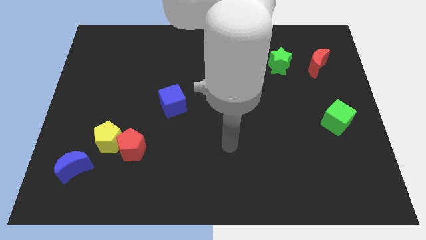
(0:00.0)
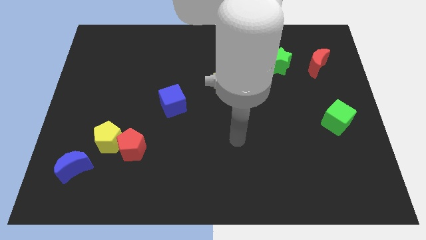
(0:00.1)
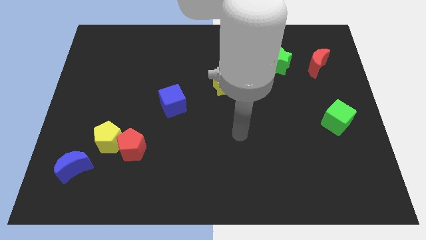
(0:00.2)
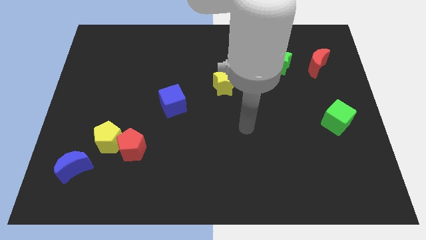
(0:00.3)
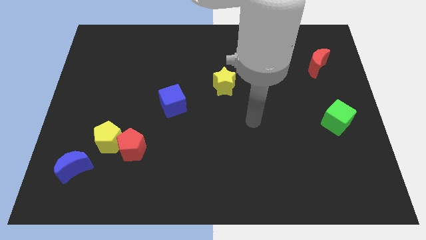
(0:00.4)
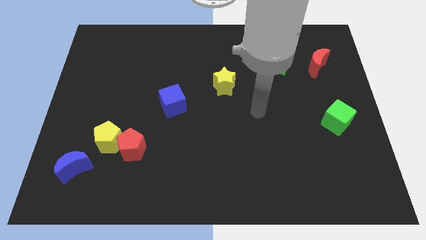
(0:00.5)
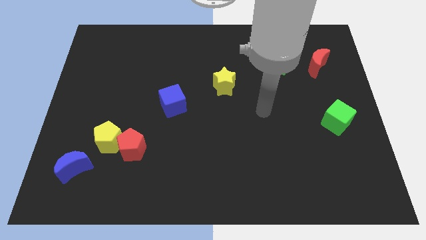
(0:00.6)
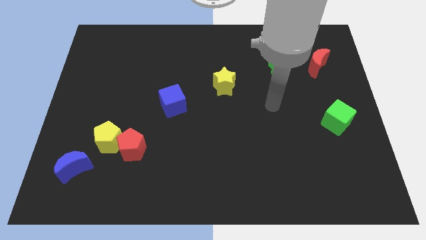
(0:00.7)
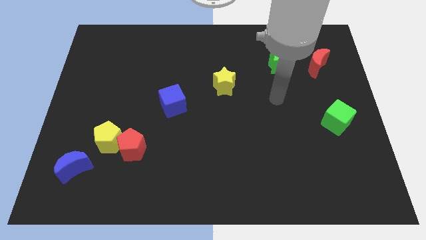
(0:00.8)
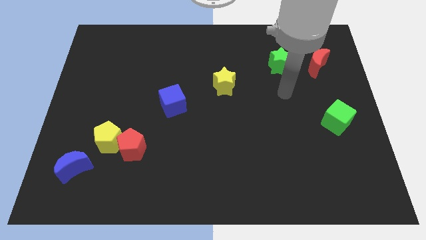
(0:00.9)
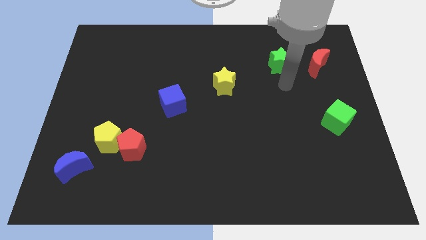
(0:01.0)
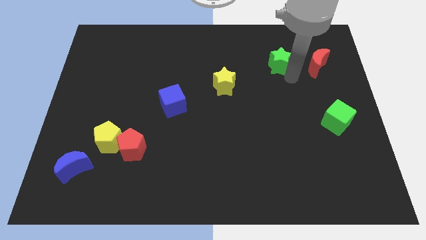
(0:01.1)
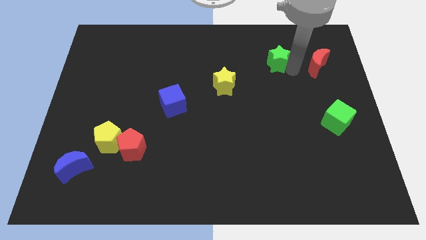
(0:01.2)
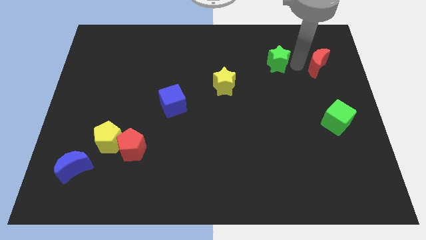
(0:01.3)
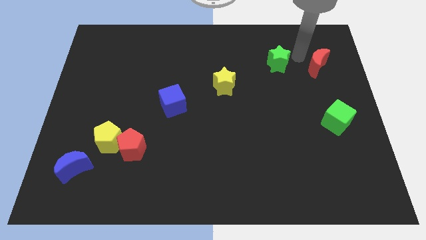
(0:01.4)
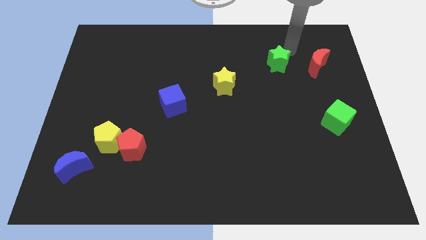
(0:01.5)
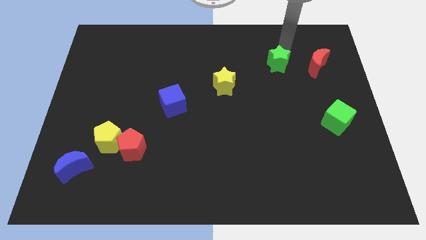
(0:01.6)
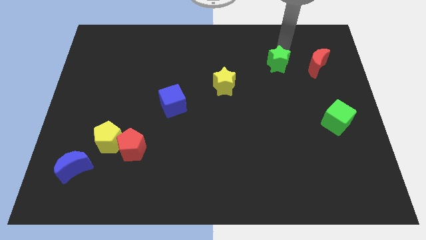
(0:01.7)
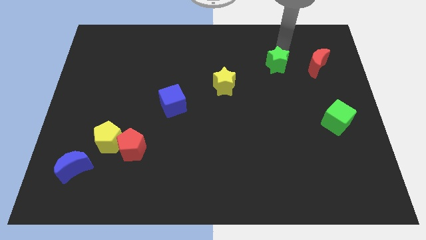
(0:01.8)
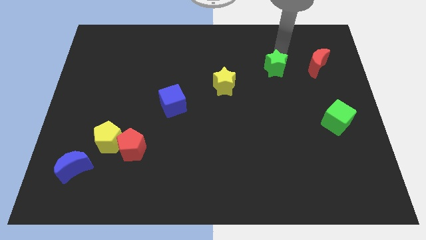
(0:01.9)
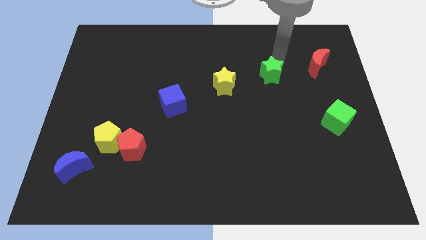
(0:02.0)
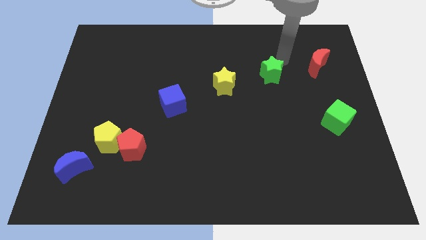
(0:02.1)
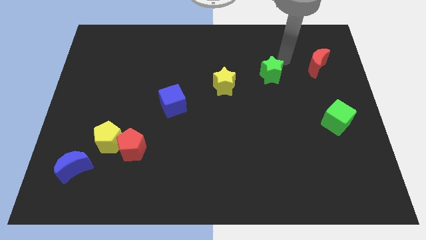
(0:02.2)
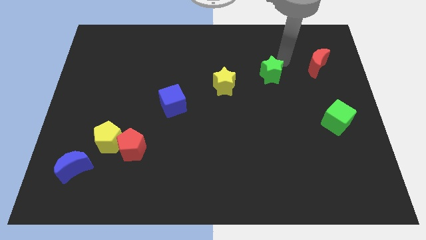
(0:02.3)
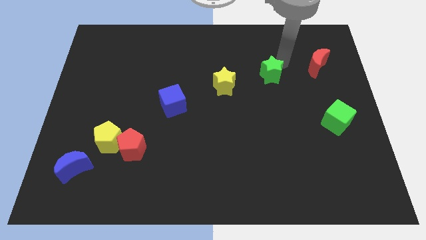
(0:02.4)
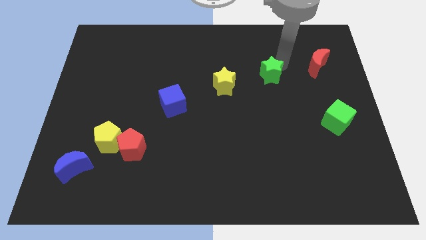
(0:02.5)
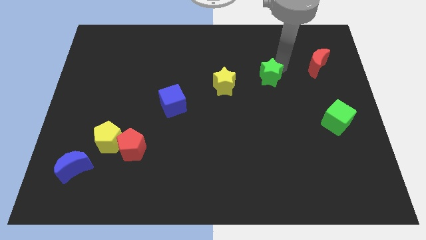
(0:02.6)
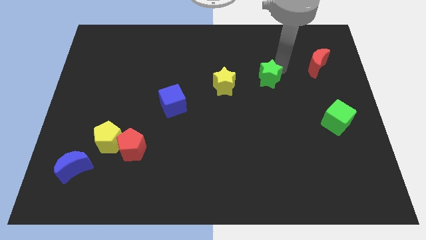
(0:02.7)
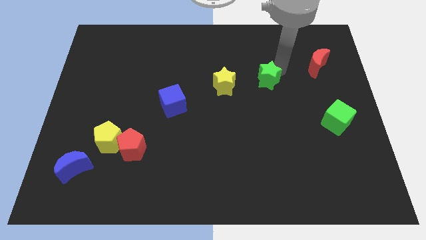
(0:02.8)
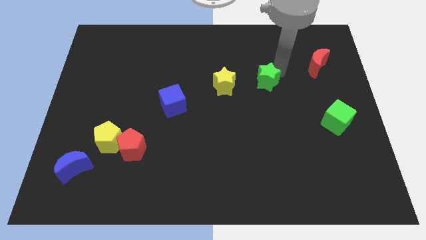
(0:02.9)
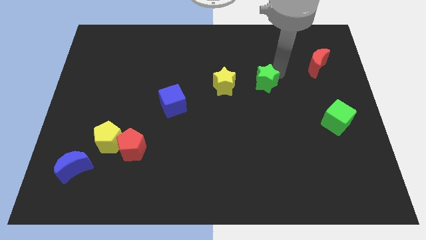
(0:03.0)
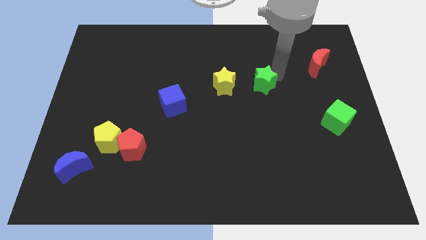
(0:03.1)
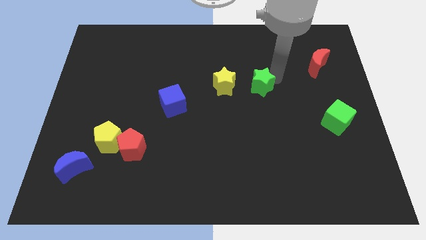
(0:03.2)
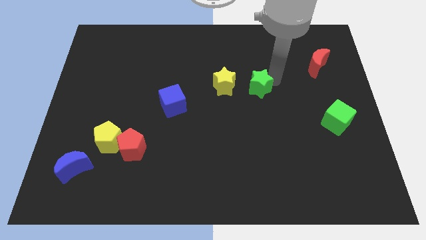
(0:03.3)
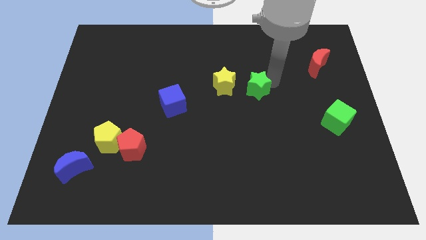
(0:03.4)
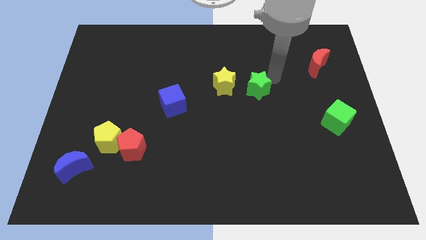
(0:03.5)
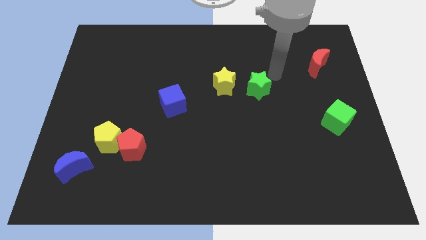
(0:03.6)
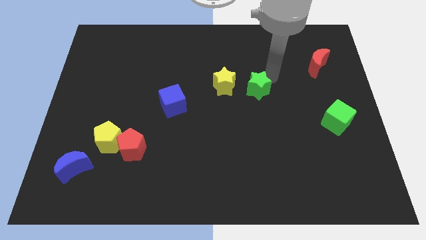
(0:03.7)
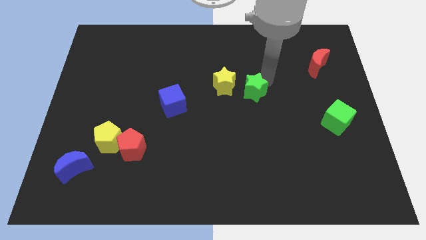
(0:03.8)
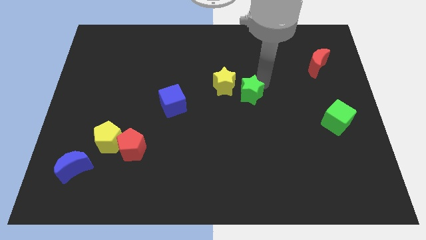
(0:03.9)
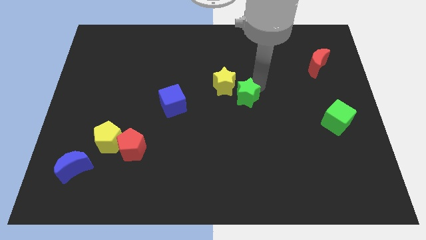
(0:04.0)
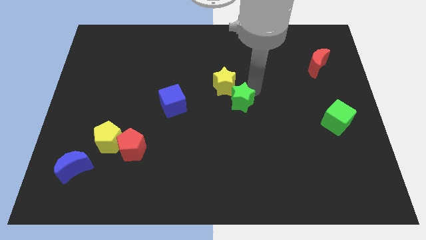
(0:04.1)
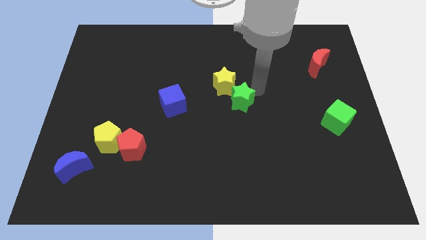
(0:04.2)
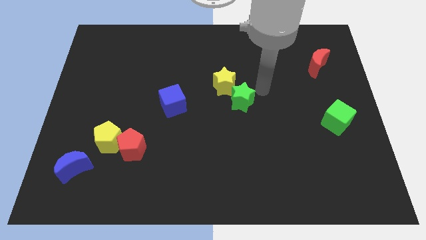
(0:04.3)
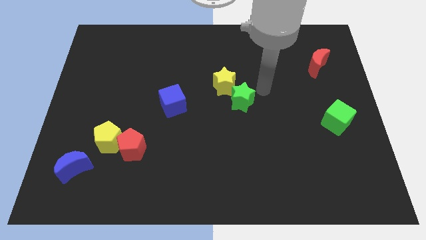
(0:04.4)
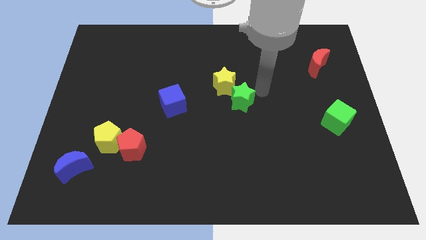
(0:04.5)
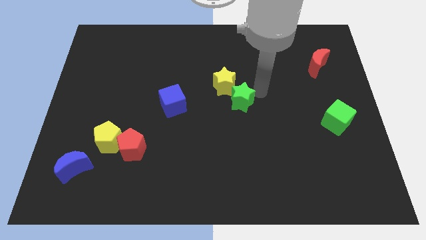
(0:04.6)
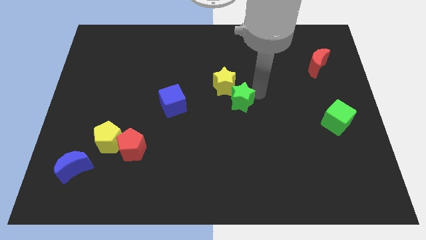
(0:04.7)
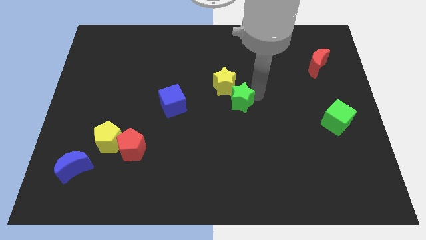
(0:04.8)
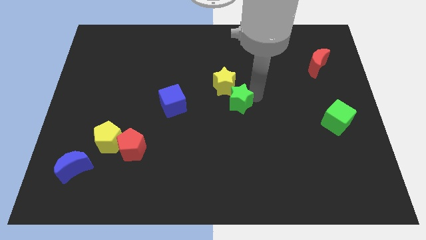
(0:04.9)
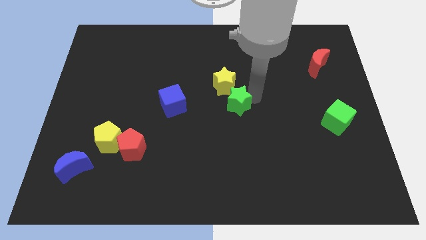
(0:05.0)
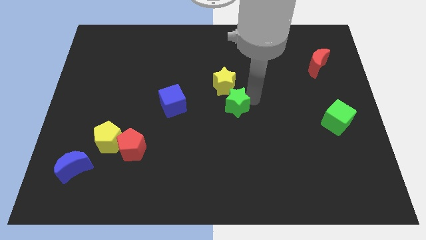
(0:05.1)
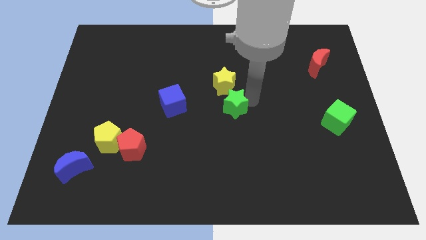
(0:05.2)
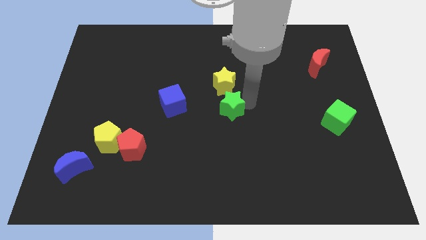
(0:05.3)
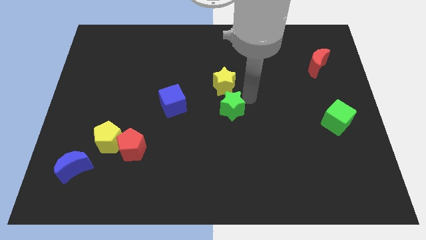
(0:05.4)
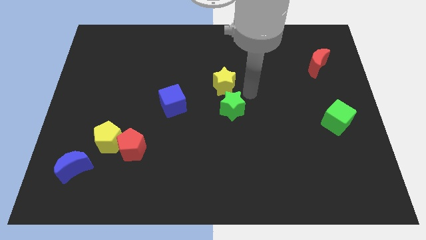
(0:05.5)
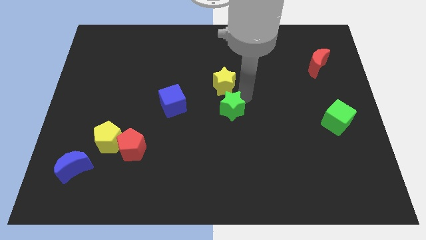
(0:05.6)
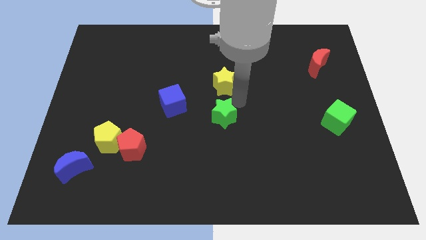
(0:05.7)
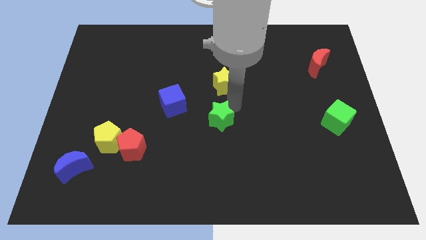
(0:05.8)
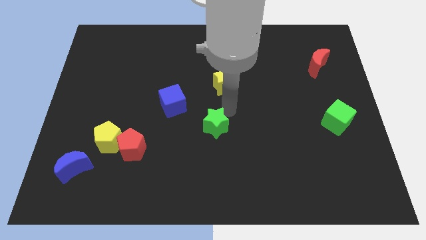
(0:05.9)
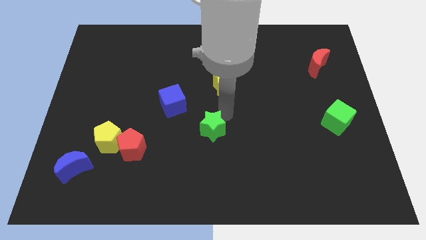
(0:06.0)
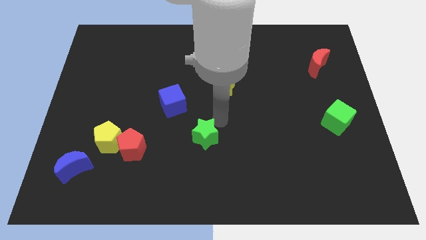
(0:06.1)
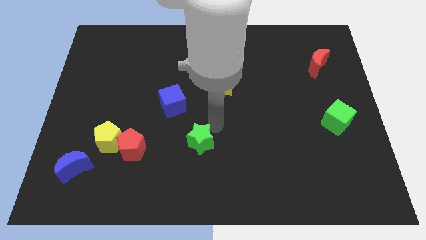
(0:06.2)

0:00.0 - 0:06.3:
put the green star to the right of the red pentagon

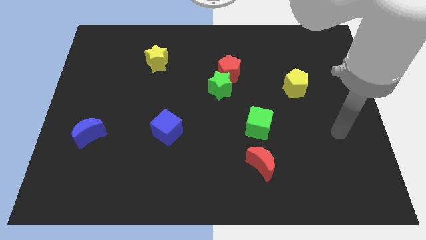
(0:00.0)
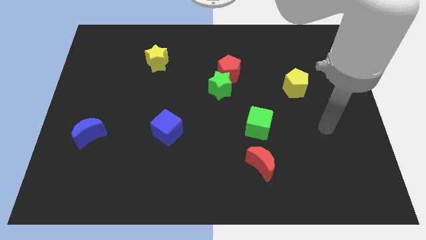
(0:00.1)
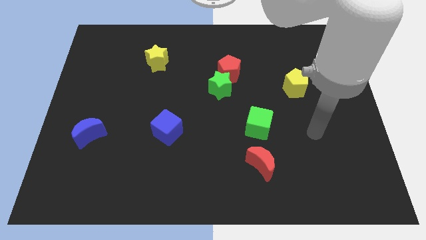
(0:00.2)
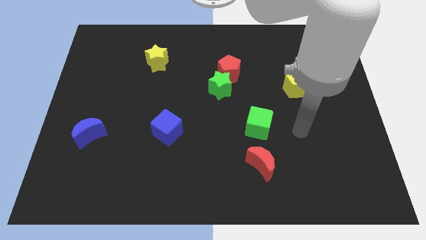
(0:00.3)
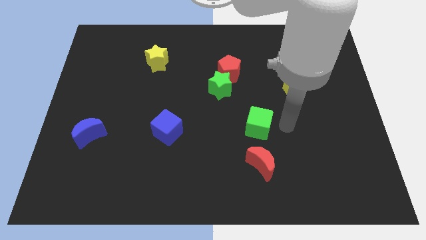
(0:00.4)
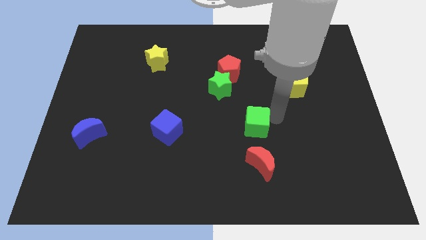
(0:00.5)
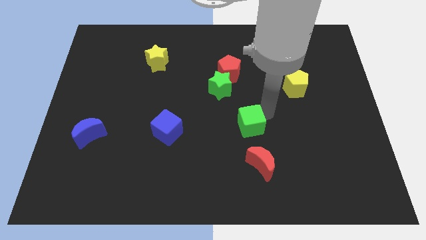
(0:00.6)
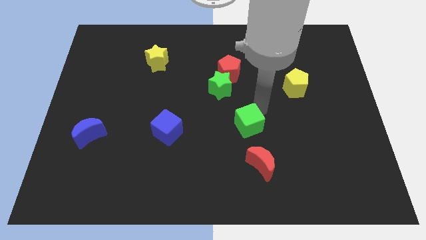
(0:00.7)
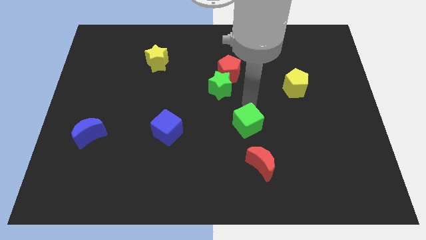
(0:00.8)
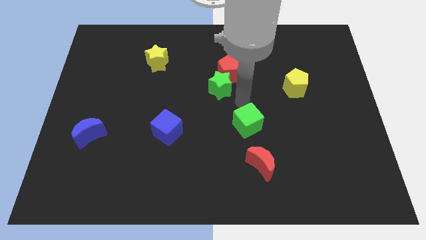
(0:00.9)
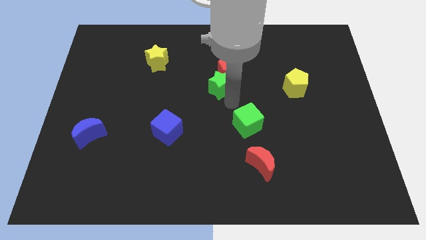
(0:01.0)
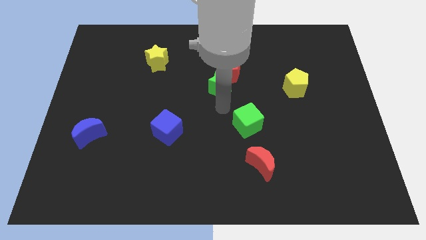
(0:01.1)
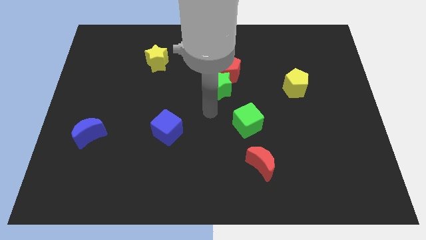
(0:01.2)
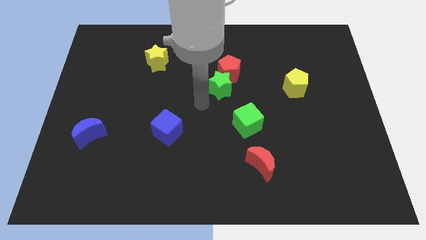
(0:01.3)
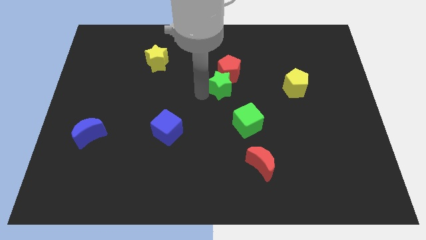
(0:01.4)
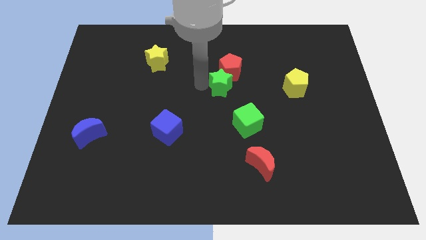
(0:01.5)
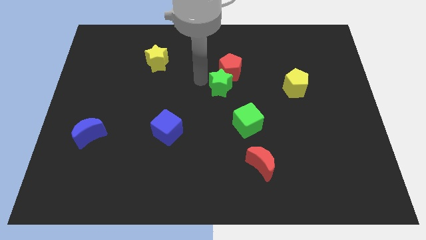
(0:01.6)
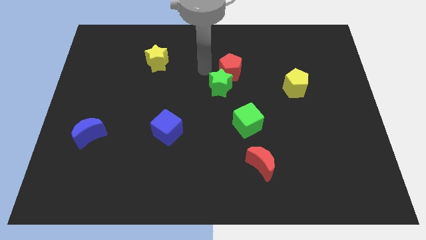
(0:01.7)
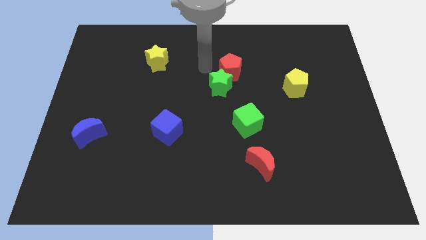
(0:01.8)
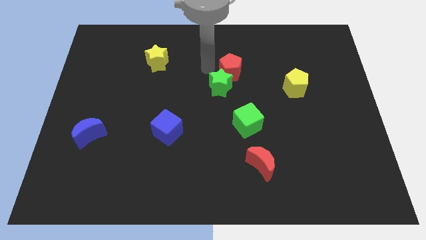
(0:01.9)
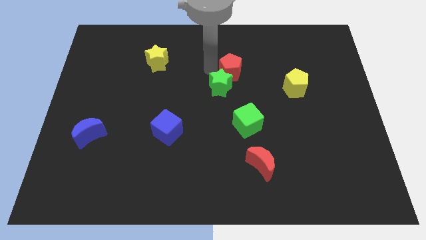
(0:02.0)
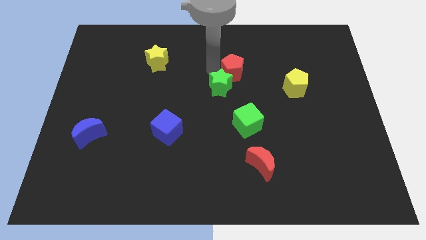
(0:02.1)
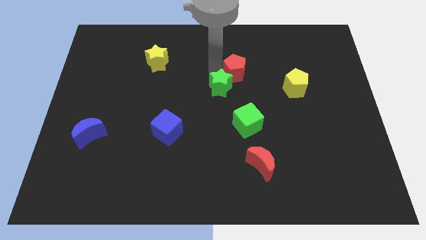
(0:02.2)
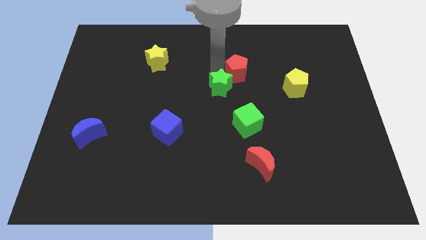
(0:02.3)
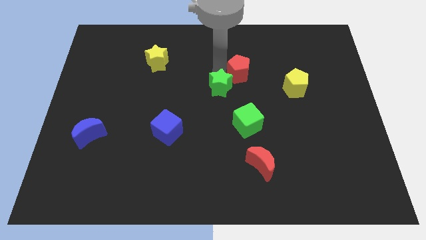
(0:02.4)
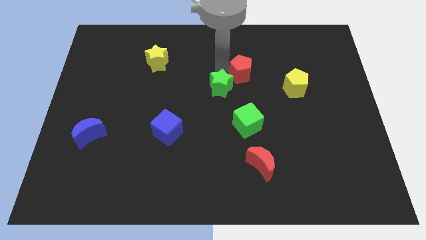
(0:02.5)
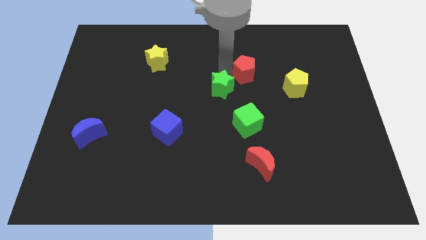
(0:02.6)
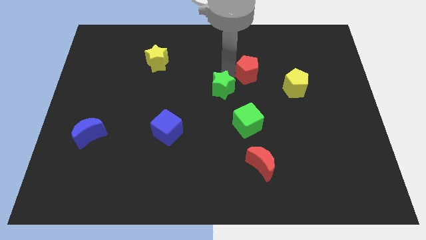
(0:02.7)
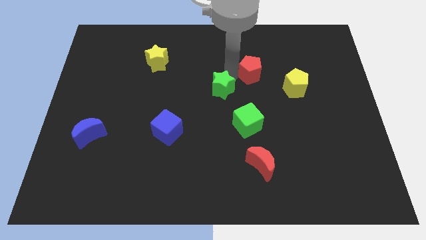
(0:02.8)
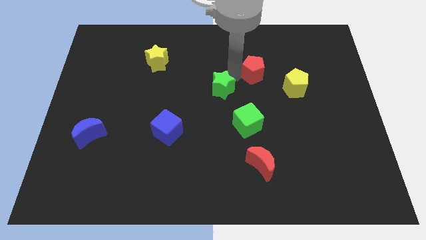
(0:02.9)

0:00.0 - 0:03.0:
push the red pentagon diagonally up and to the left of the yellow pentagon
